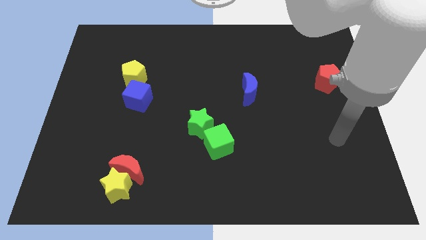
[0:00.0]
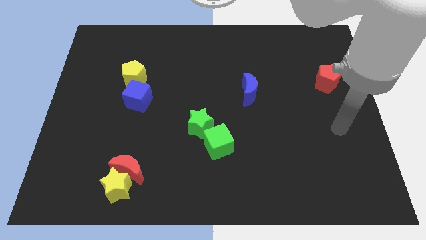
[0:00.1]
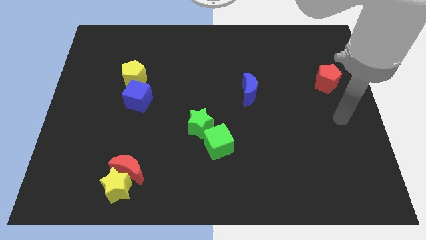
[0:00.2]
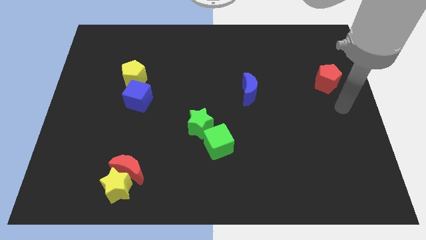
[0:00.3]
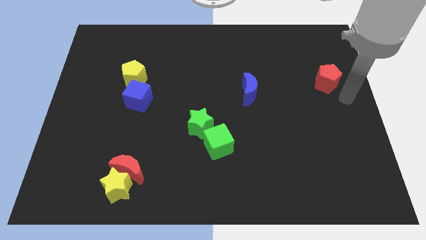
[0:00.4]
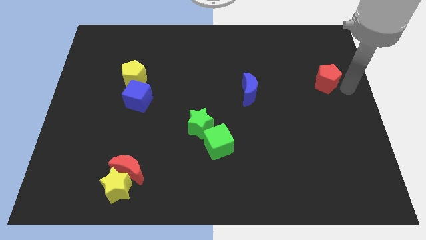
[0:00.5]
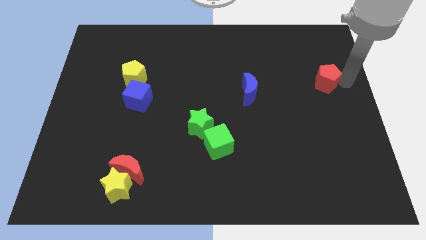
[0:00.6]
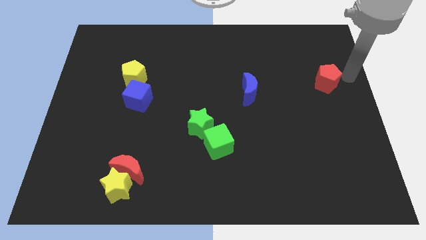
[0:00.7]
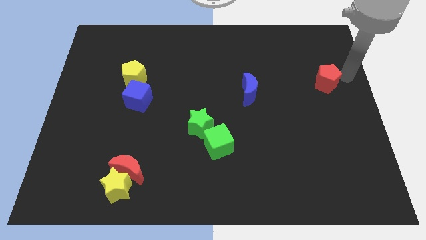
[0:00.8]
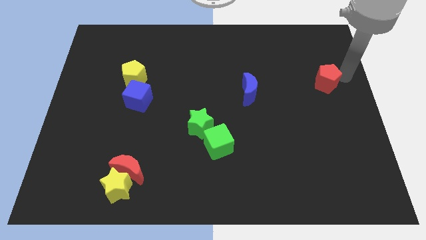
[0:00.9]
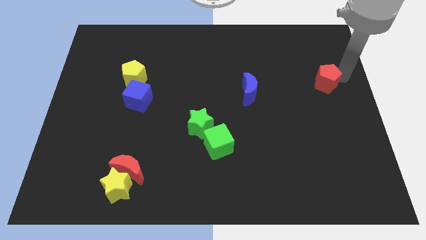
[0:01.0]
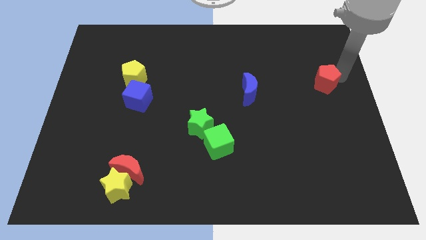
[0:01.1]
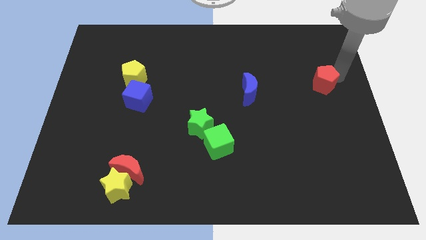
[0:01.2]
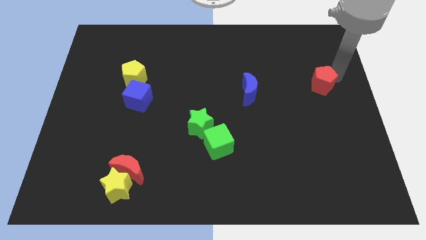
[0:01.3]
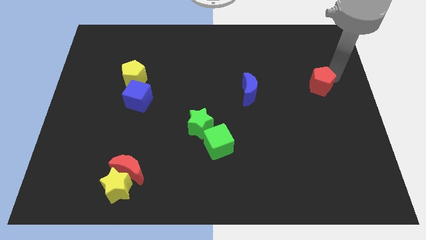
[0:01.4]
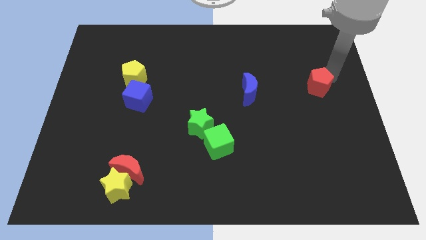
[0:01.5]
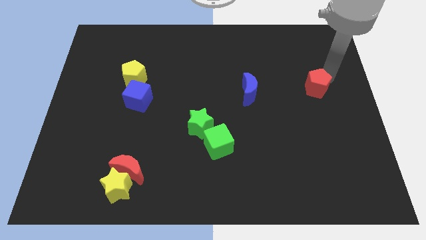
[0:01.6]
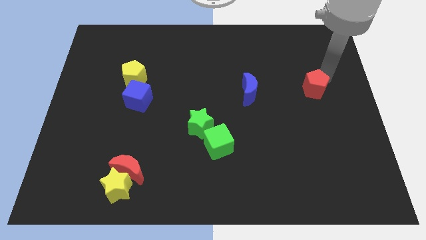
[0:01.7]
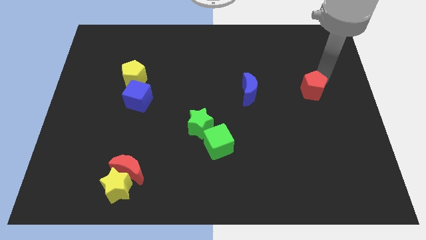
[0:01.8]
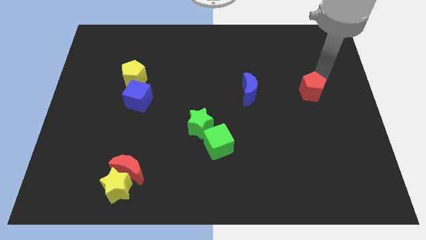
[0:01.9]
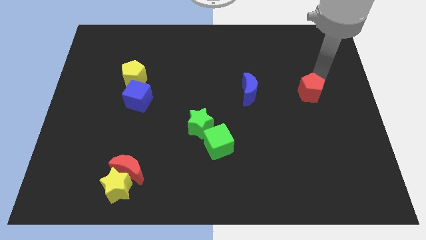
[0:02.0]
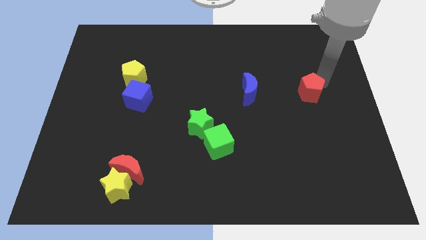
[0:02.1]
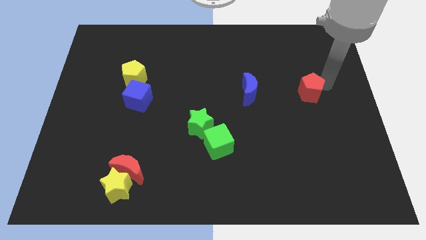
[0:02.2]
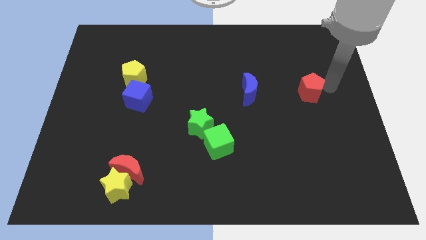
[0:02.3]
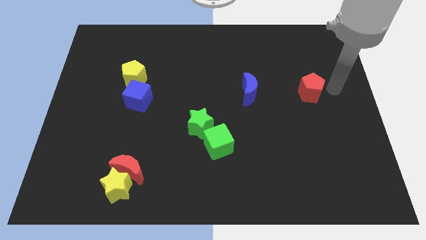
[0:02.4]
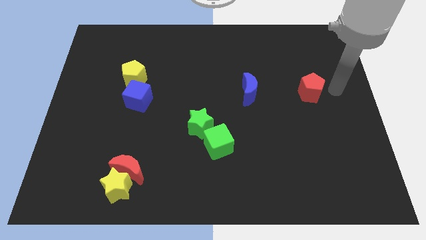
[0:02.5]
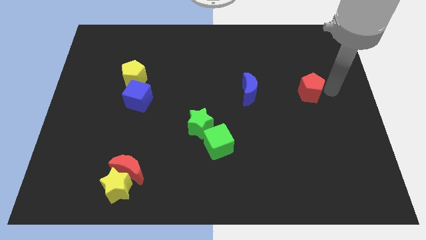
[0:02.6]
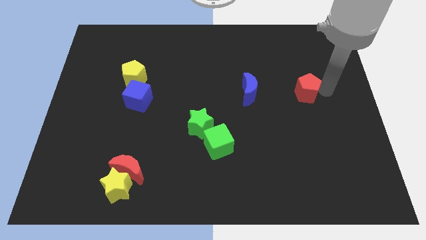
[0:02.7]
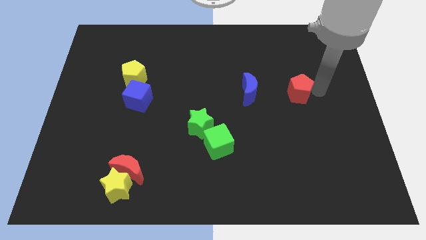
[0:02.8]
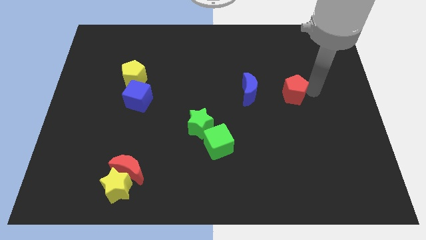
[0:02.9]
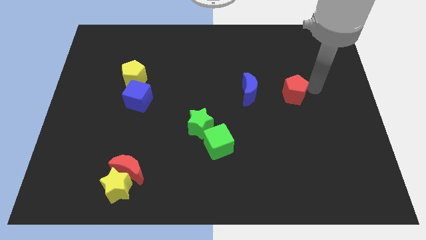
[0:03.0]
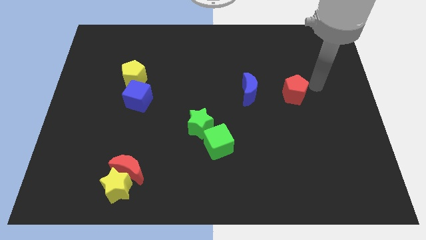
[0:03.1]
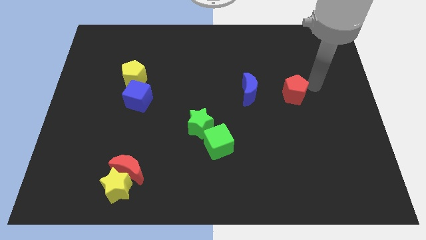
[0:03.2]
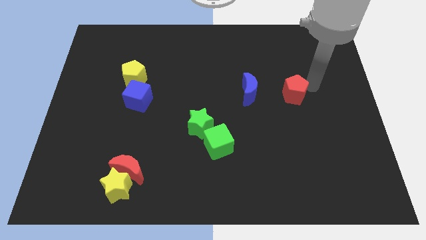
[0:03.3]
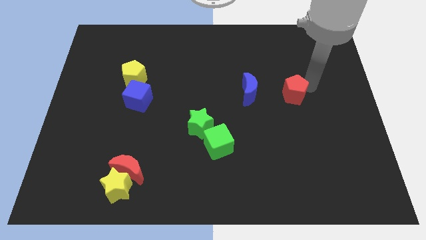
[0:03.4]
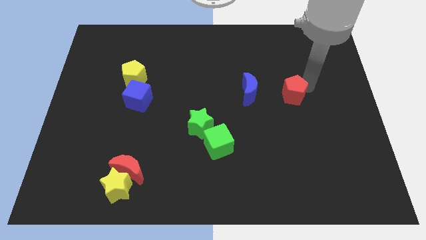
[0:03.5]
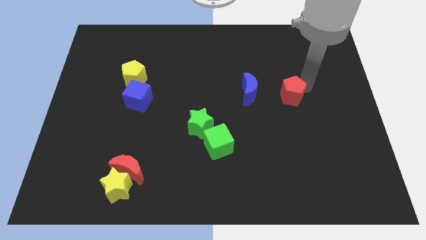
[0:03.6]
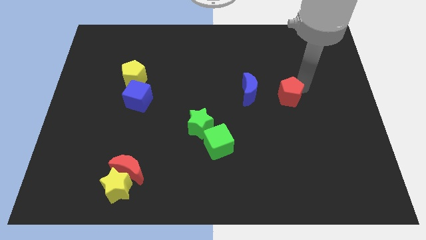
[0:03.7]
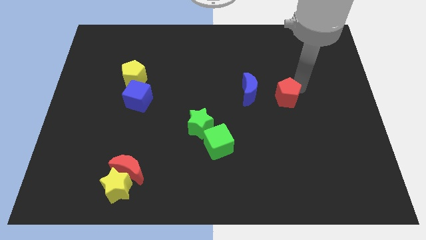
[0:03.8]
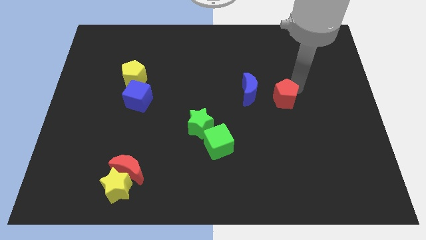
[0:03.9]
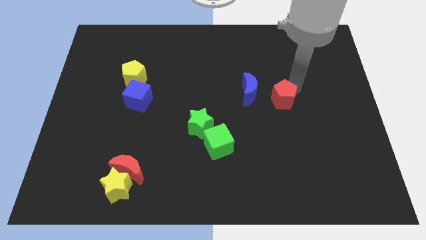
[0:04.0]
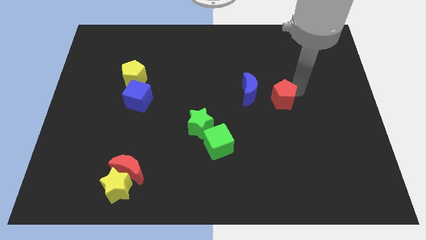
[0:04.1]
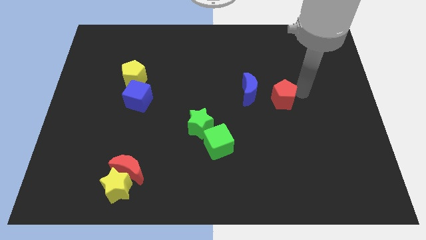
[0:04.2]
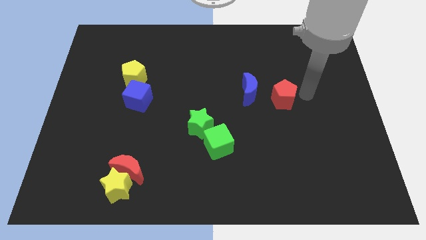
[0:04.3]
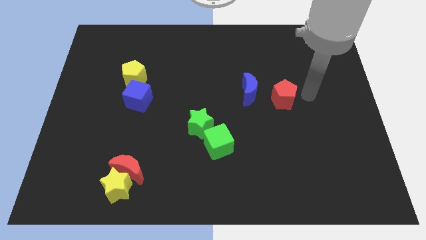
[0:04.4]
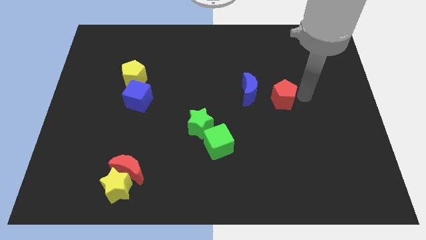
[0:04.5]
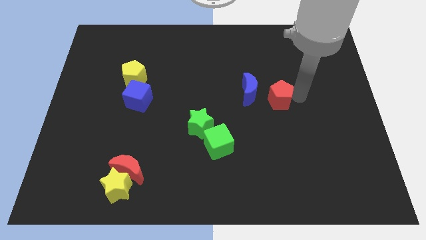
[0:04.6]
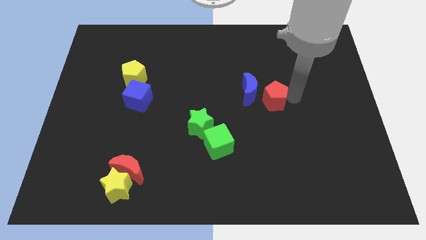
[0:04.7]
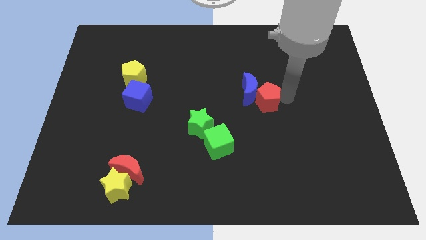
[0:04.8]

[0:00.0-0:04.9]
move the red pentagon to the middle

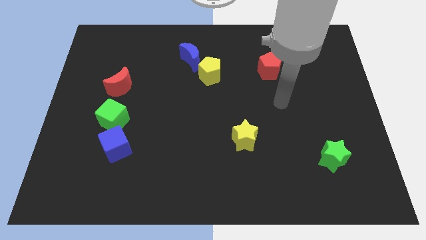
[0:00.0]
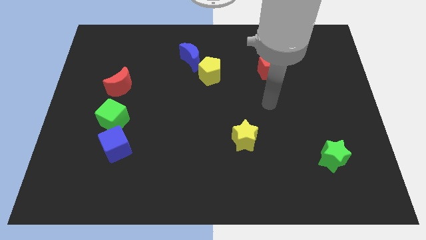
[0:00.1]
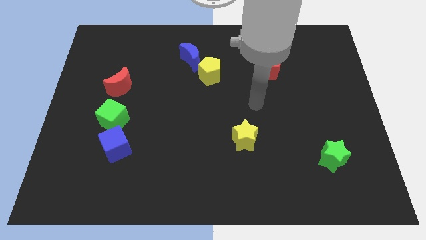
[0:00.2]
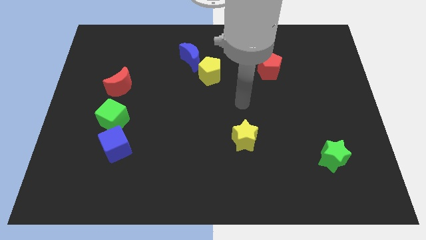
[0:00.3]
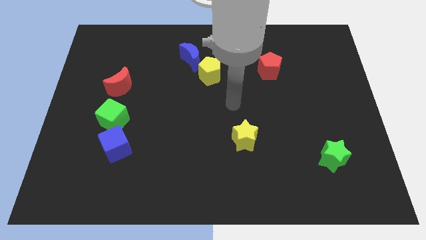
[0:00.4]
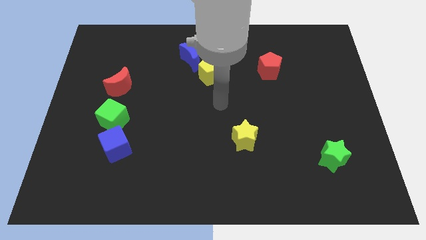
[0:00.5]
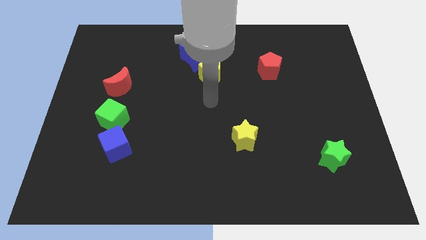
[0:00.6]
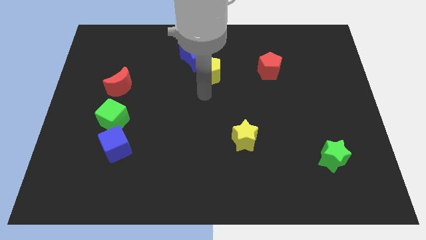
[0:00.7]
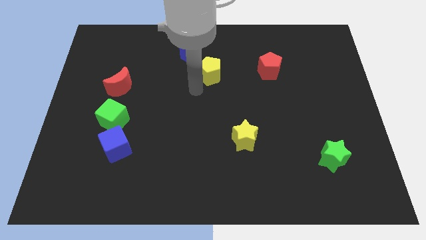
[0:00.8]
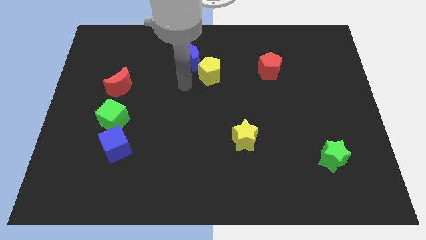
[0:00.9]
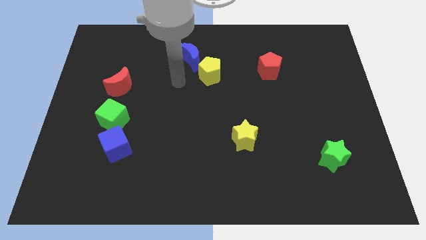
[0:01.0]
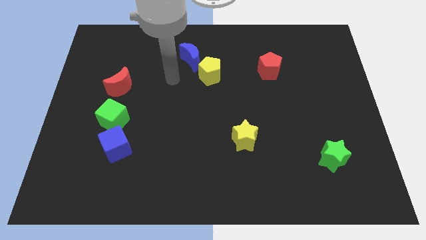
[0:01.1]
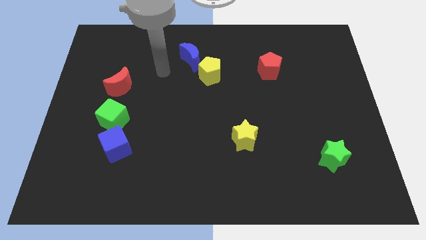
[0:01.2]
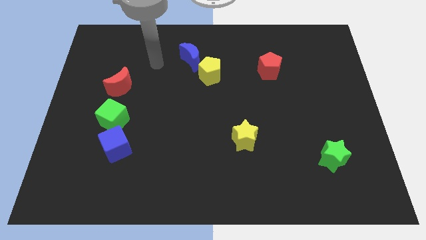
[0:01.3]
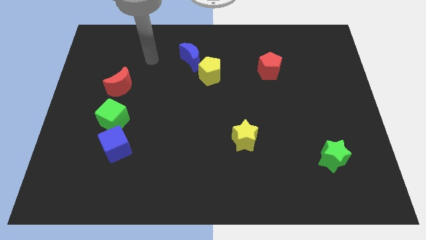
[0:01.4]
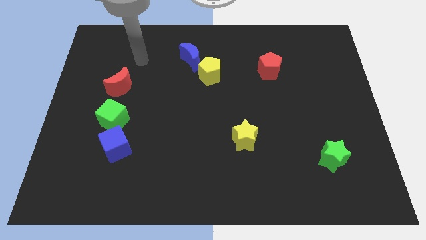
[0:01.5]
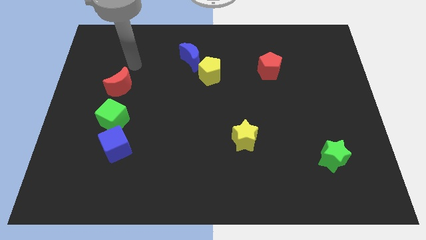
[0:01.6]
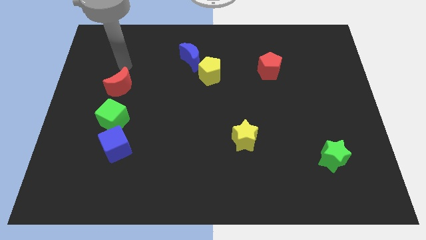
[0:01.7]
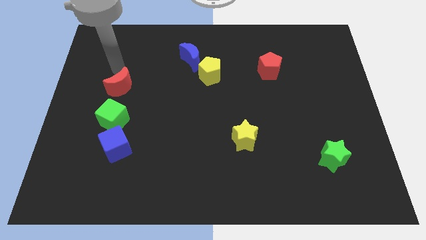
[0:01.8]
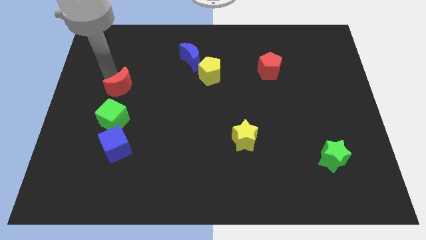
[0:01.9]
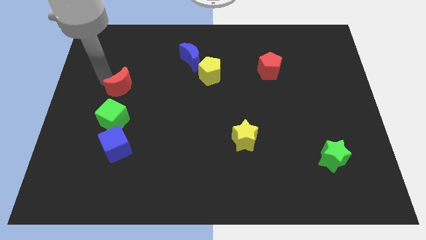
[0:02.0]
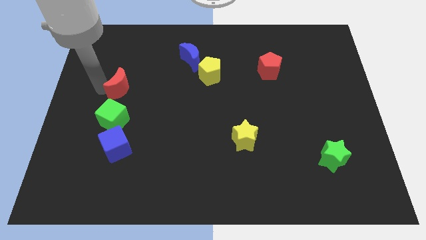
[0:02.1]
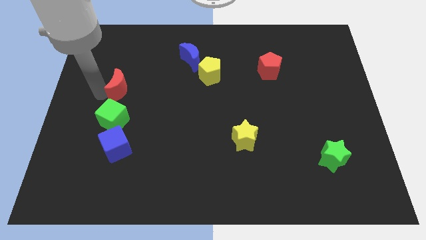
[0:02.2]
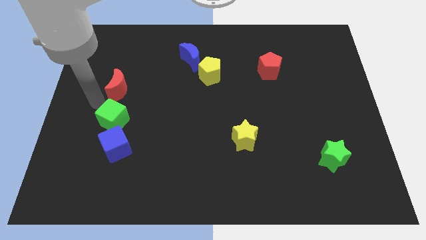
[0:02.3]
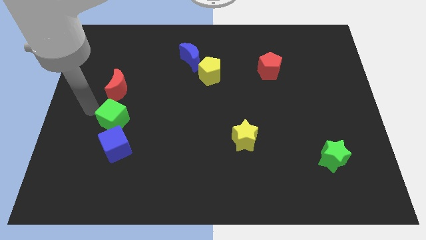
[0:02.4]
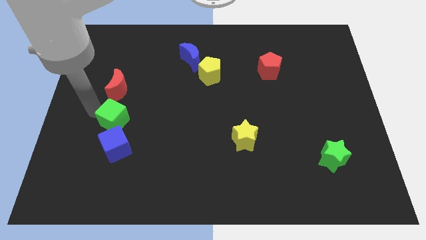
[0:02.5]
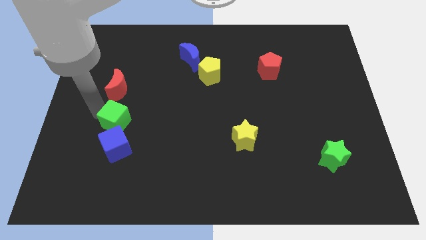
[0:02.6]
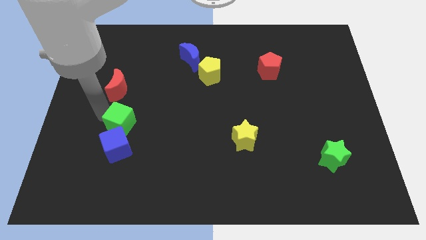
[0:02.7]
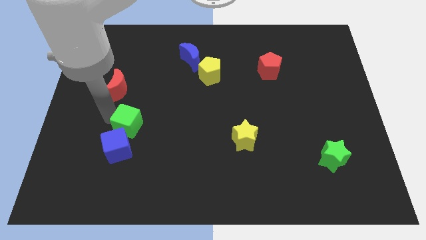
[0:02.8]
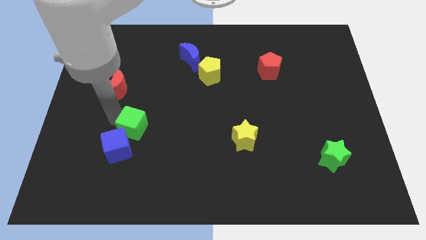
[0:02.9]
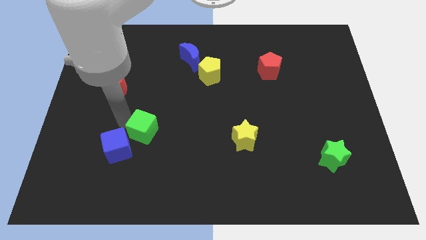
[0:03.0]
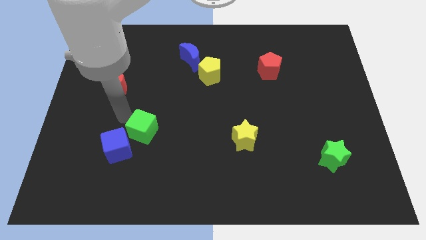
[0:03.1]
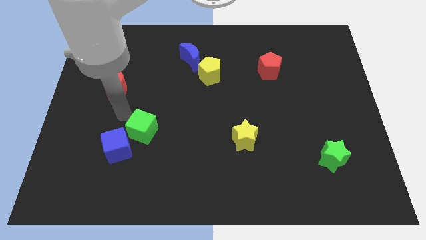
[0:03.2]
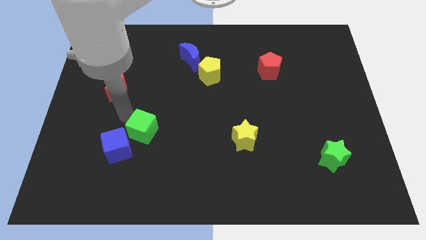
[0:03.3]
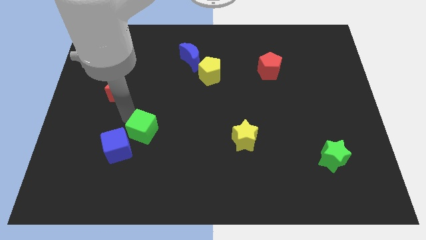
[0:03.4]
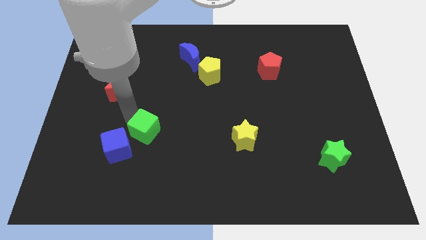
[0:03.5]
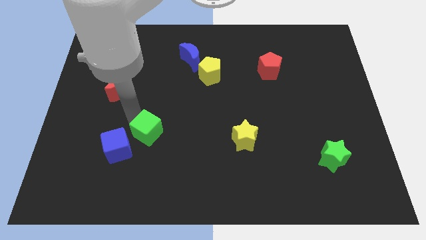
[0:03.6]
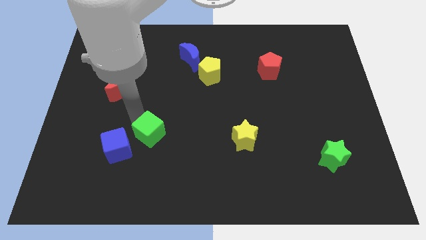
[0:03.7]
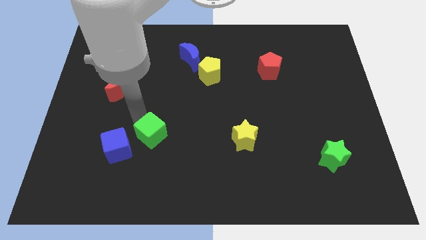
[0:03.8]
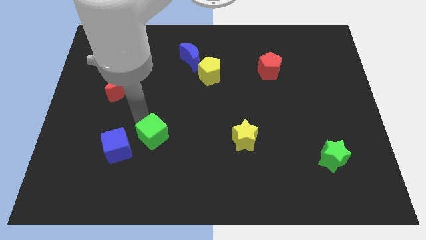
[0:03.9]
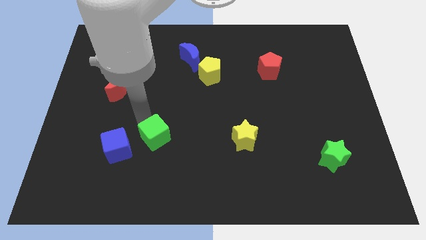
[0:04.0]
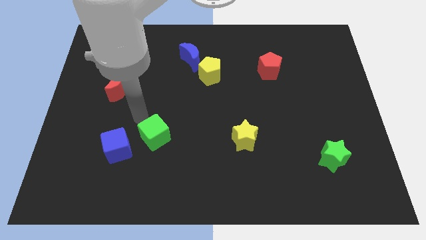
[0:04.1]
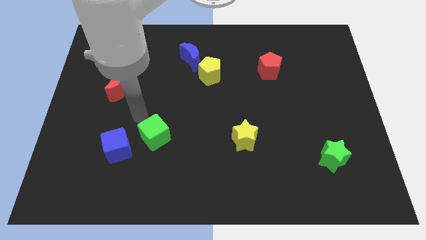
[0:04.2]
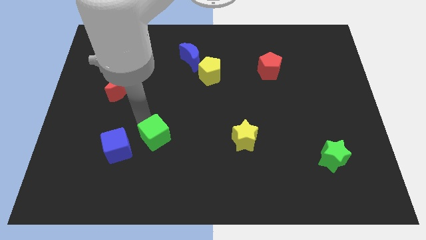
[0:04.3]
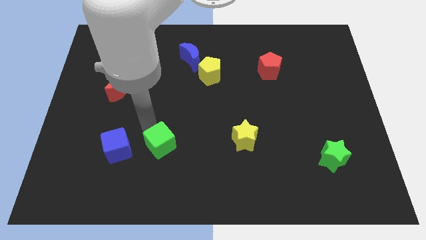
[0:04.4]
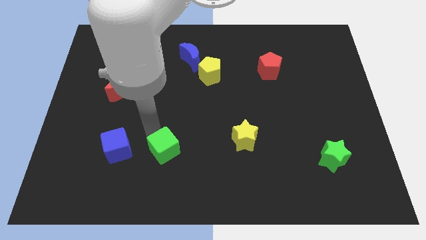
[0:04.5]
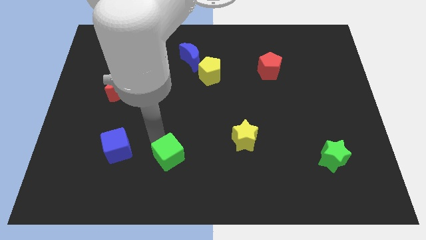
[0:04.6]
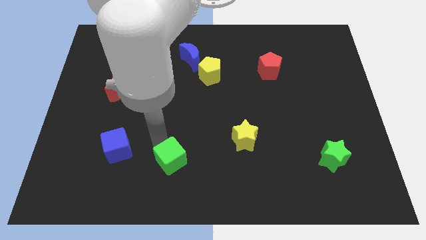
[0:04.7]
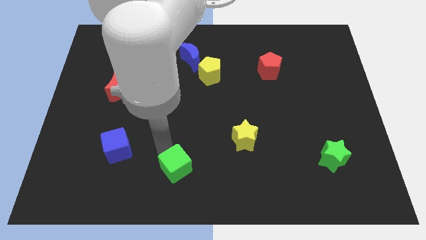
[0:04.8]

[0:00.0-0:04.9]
slide the green cube to the bottom
